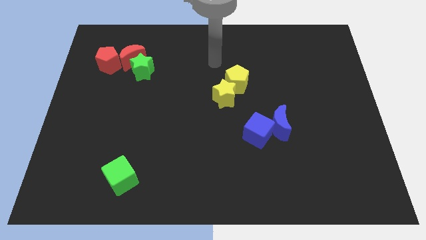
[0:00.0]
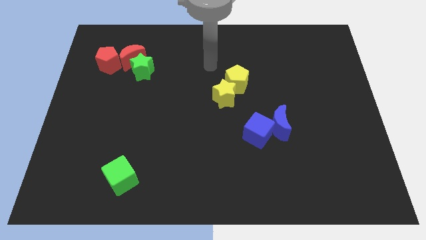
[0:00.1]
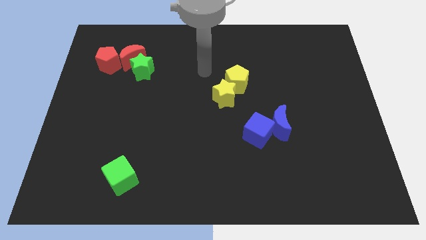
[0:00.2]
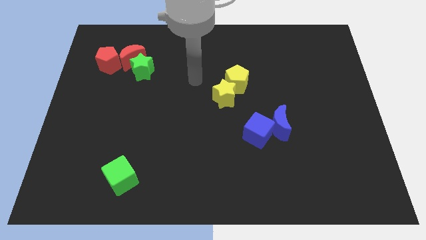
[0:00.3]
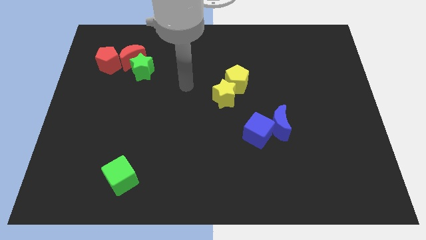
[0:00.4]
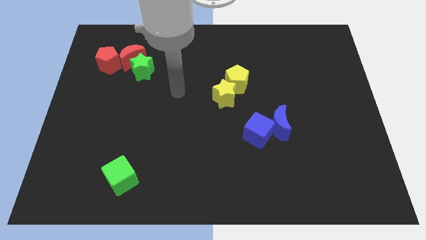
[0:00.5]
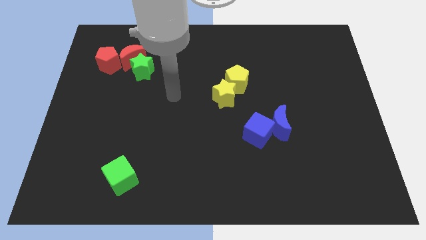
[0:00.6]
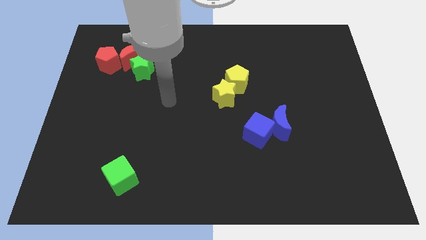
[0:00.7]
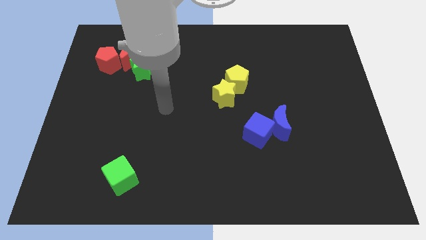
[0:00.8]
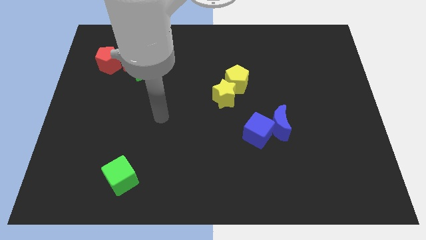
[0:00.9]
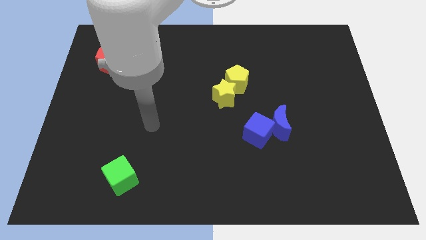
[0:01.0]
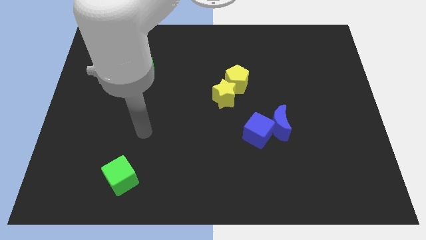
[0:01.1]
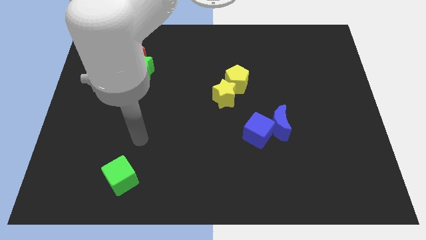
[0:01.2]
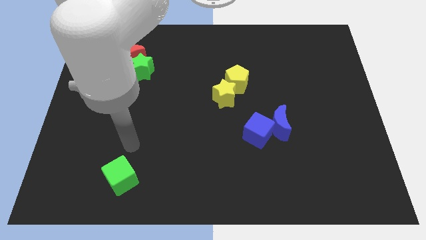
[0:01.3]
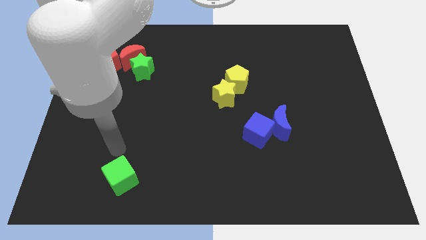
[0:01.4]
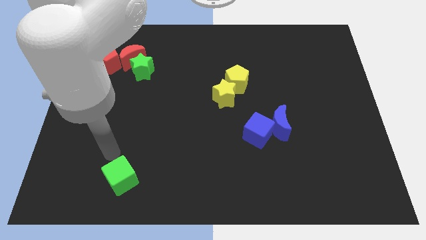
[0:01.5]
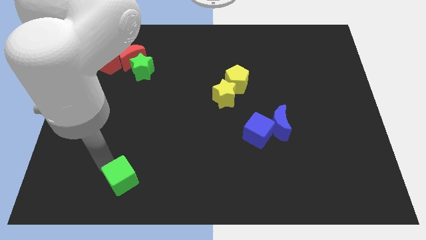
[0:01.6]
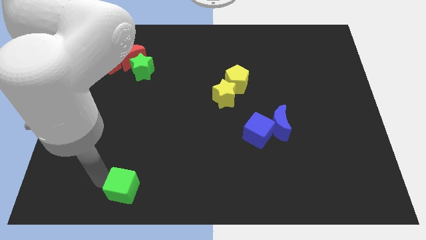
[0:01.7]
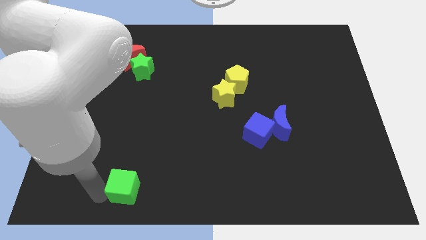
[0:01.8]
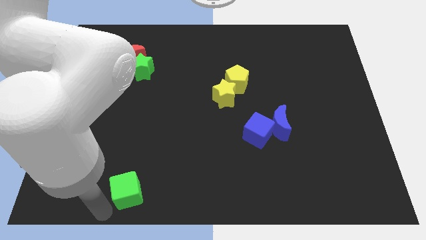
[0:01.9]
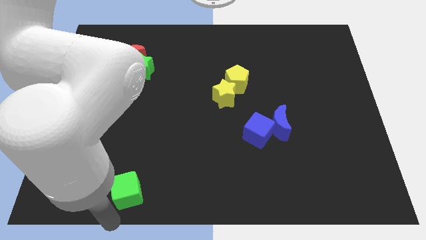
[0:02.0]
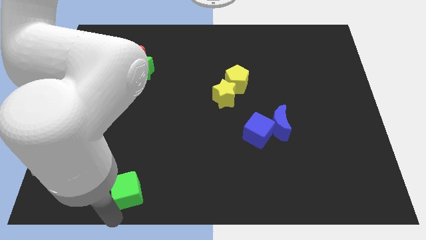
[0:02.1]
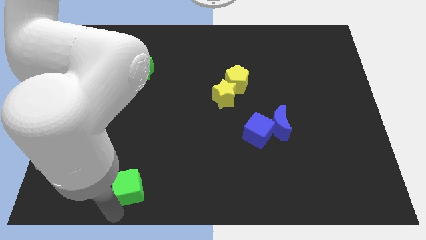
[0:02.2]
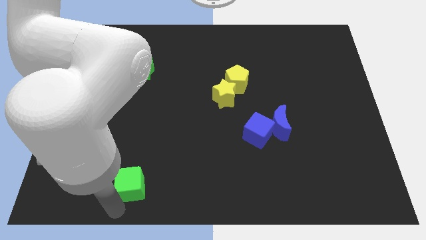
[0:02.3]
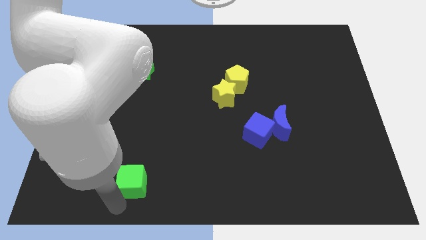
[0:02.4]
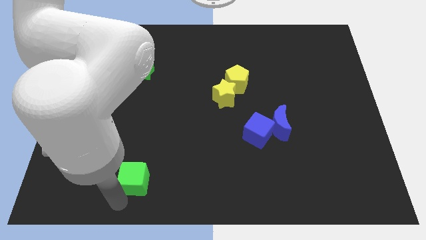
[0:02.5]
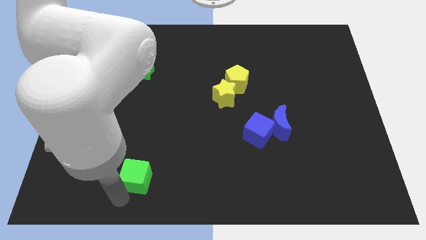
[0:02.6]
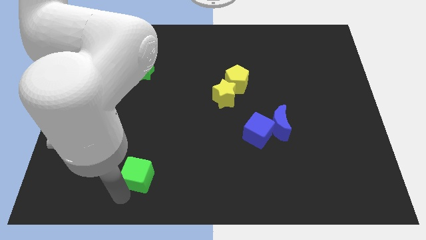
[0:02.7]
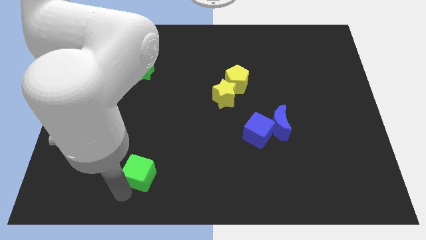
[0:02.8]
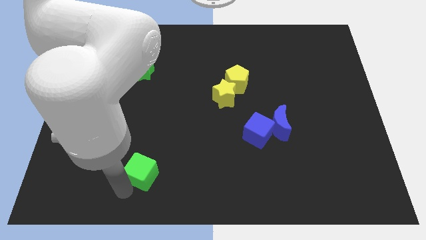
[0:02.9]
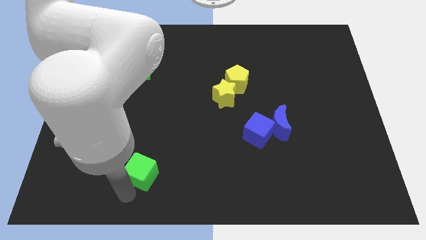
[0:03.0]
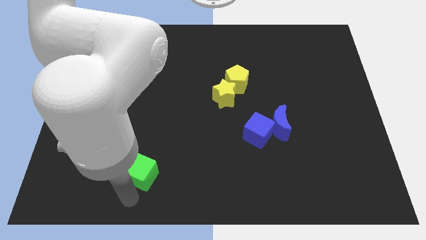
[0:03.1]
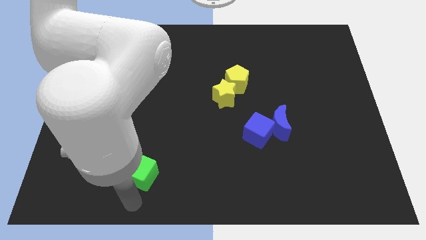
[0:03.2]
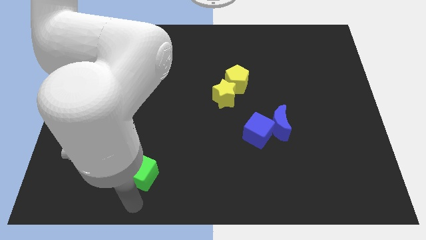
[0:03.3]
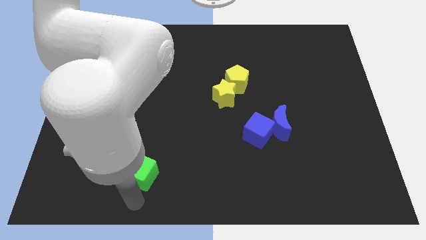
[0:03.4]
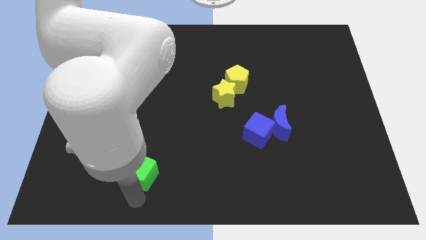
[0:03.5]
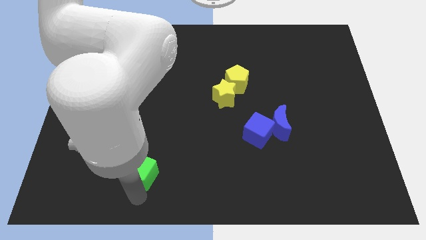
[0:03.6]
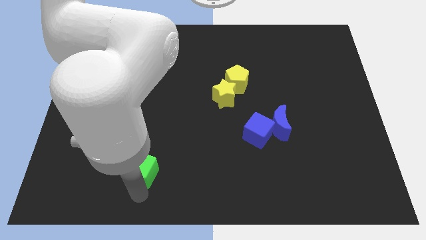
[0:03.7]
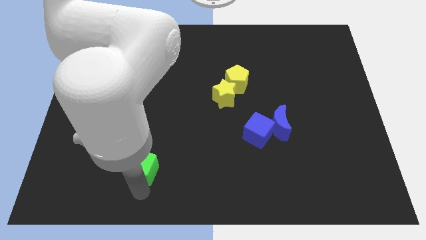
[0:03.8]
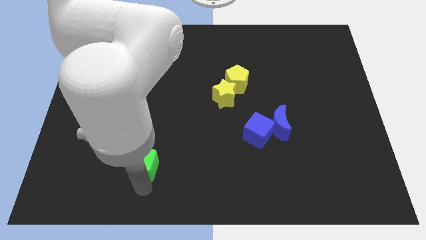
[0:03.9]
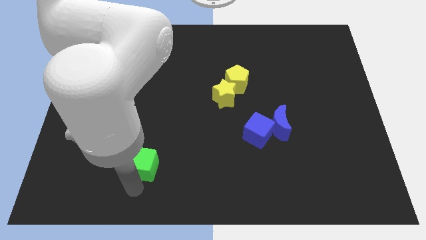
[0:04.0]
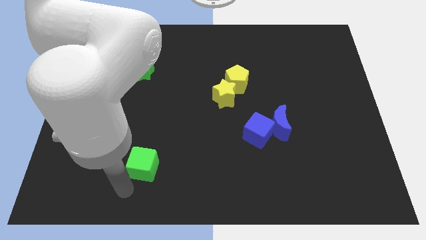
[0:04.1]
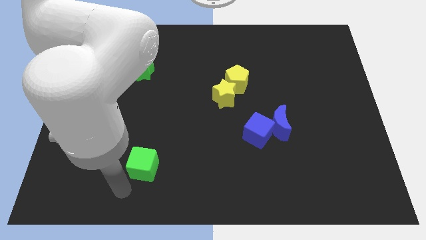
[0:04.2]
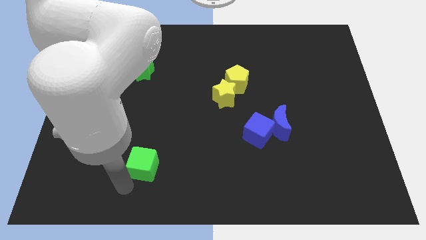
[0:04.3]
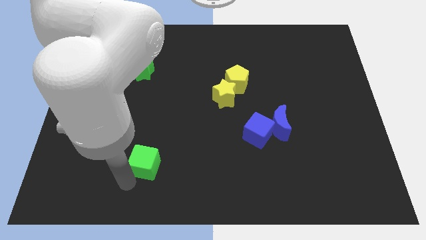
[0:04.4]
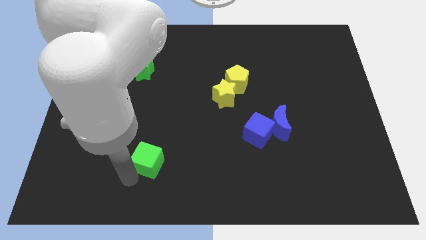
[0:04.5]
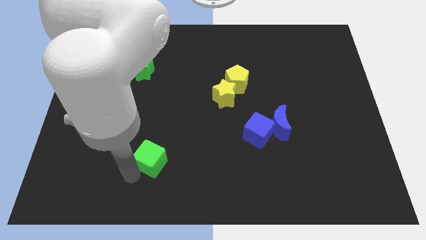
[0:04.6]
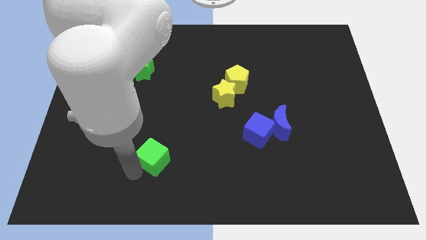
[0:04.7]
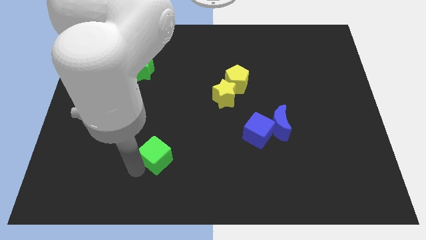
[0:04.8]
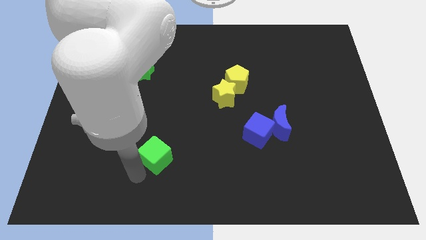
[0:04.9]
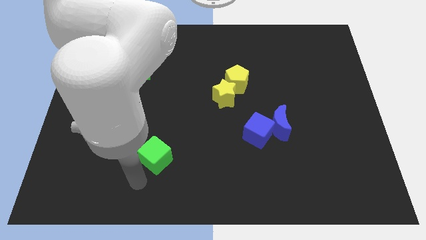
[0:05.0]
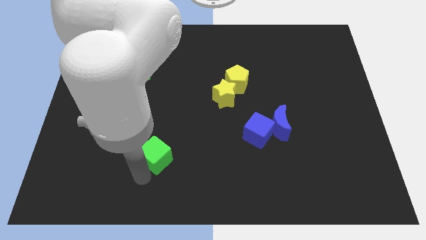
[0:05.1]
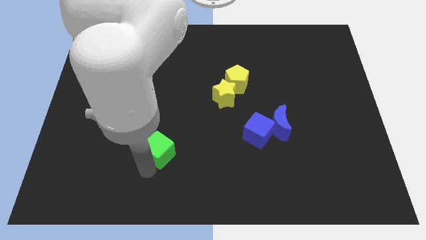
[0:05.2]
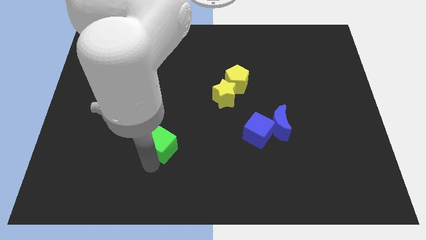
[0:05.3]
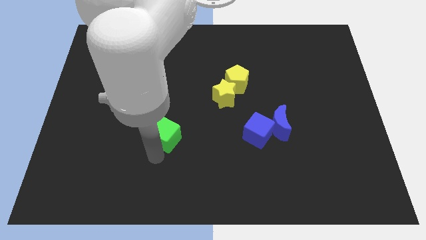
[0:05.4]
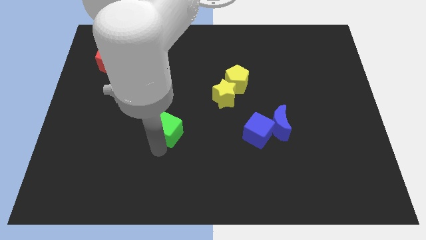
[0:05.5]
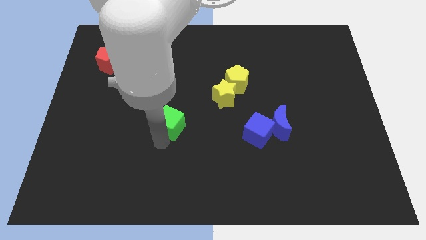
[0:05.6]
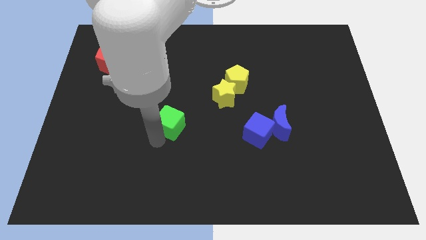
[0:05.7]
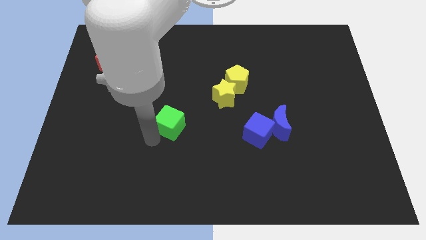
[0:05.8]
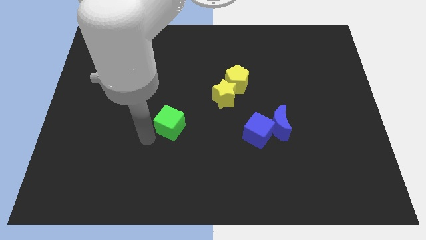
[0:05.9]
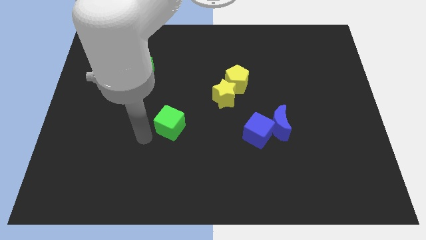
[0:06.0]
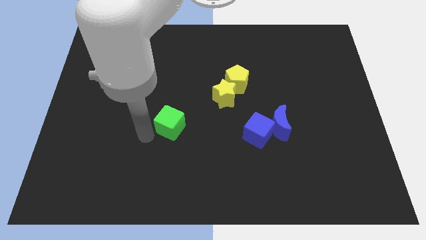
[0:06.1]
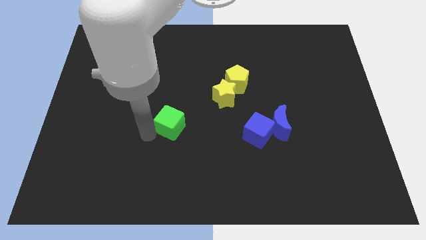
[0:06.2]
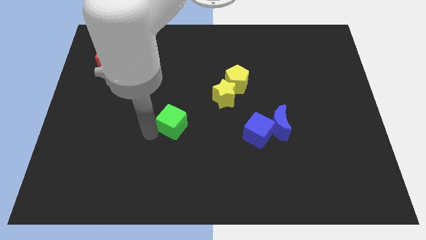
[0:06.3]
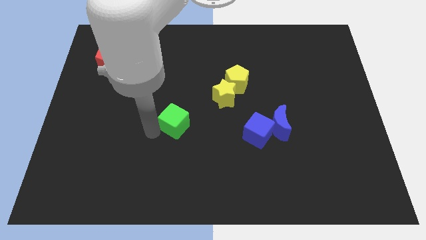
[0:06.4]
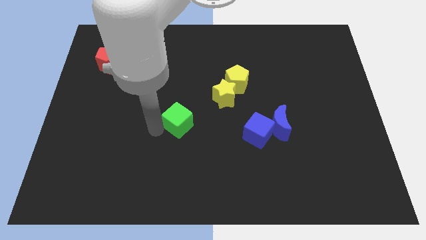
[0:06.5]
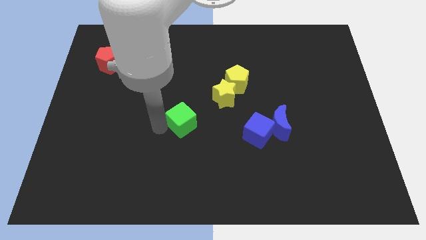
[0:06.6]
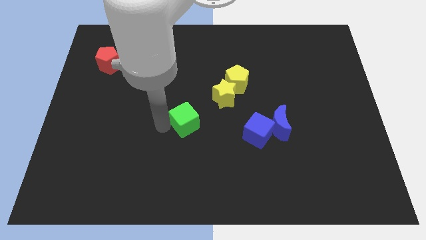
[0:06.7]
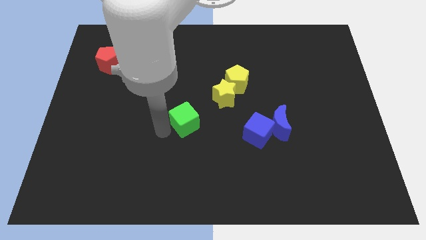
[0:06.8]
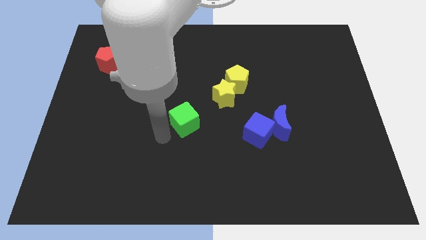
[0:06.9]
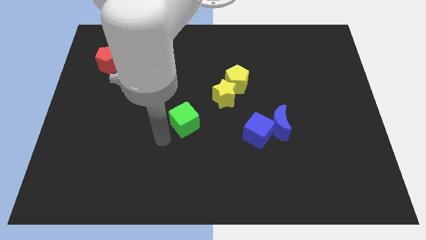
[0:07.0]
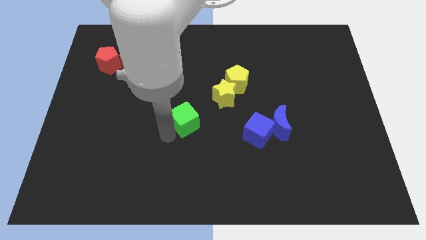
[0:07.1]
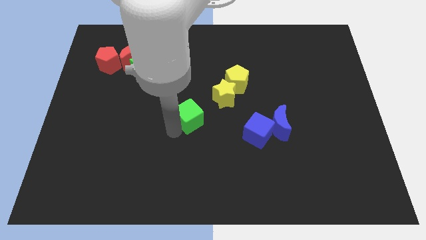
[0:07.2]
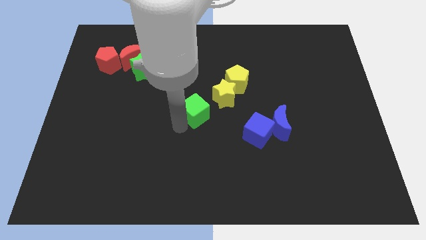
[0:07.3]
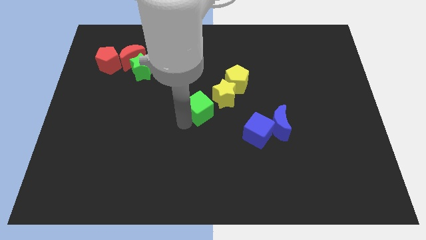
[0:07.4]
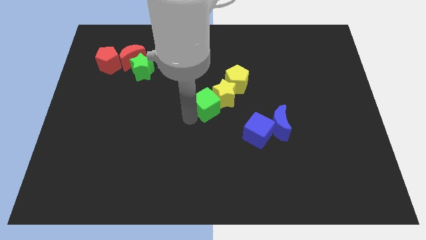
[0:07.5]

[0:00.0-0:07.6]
slide the green cube close to the yellow star
